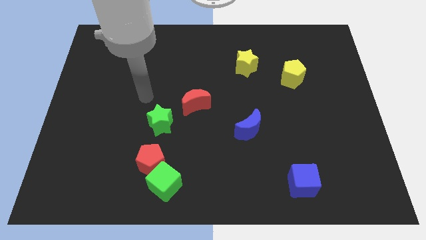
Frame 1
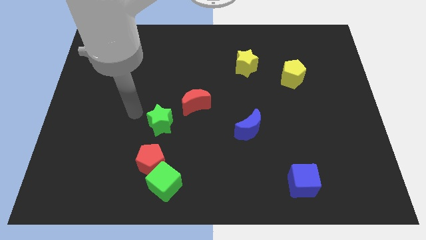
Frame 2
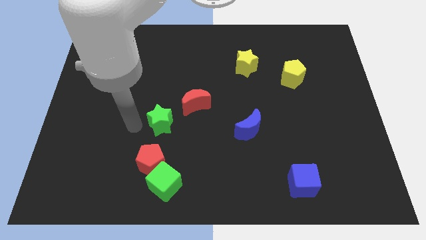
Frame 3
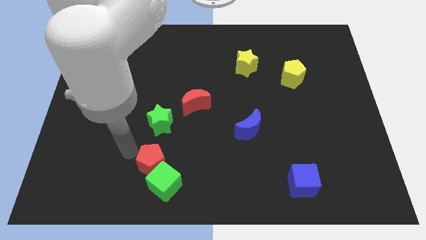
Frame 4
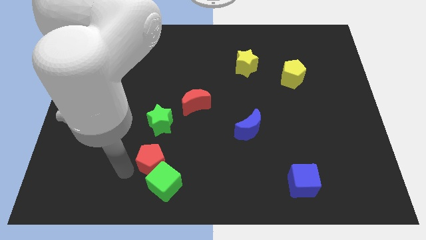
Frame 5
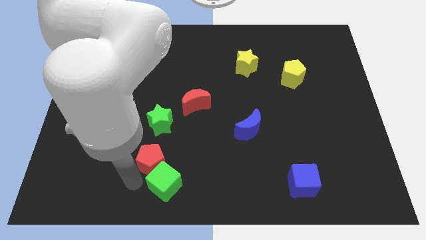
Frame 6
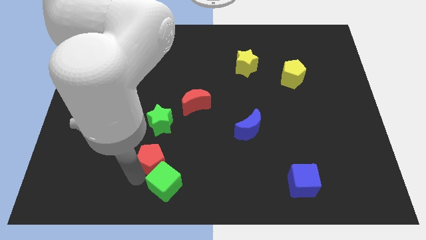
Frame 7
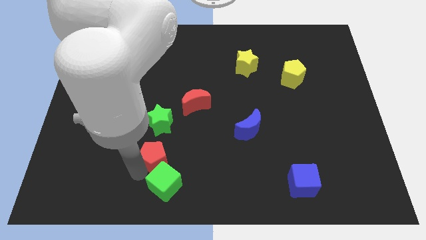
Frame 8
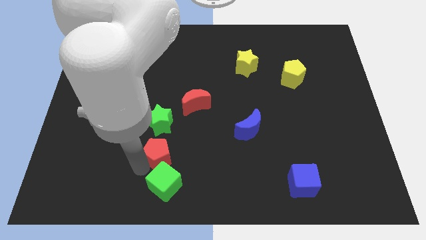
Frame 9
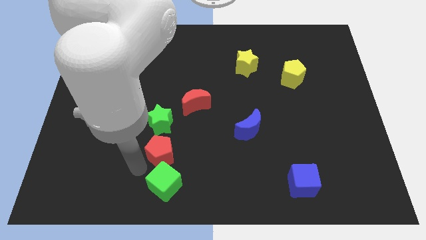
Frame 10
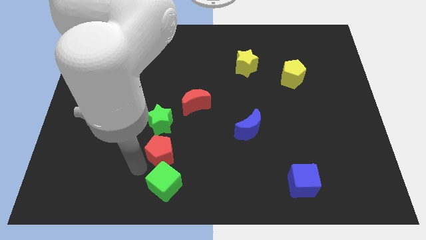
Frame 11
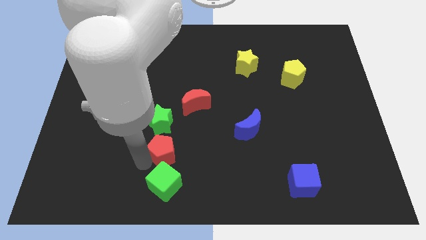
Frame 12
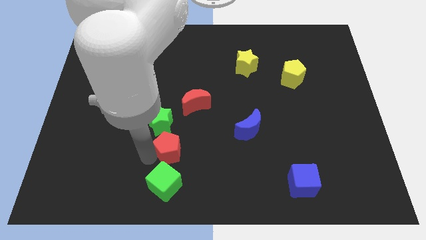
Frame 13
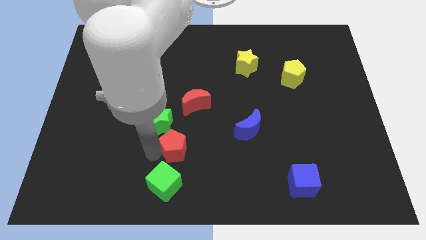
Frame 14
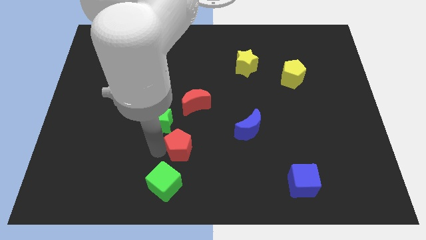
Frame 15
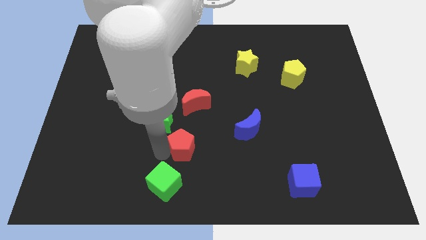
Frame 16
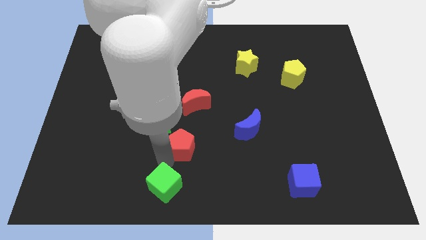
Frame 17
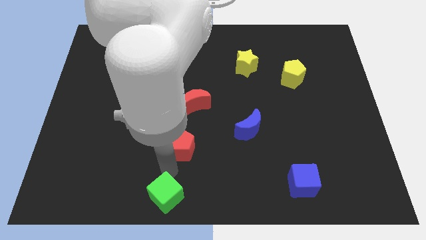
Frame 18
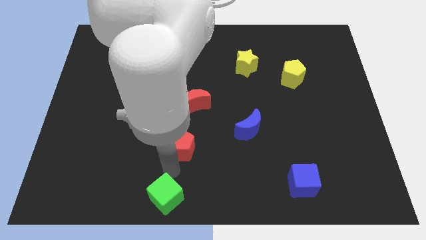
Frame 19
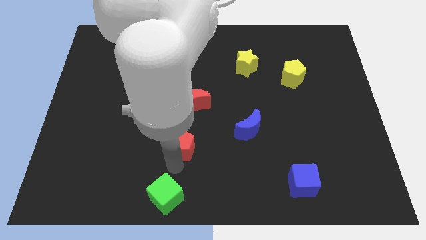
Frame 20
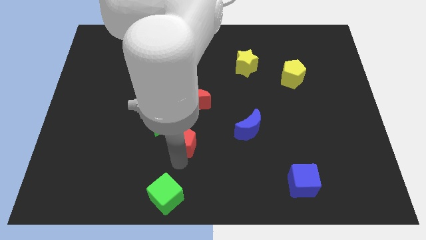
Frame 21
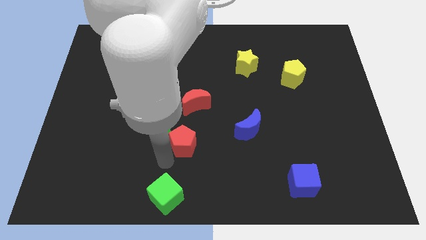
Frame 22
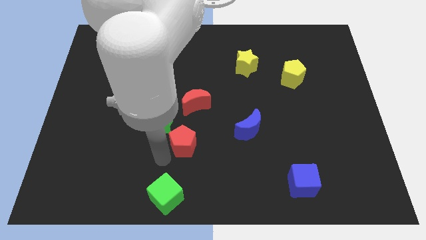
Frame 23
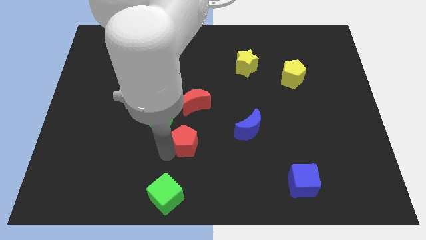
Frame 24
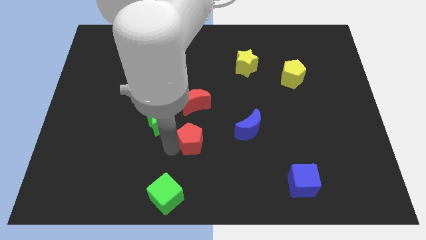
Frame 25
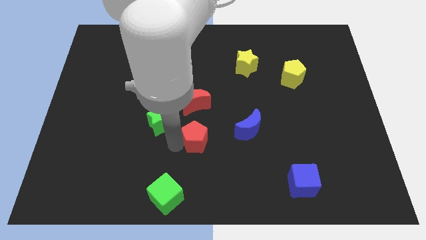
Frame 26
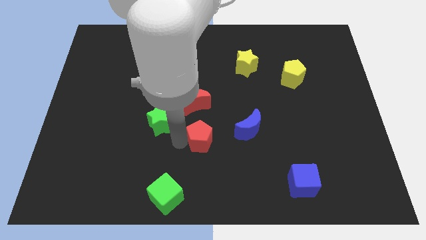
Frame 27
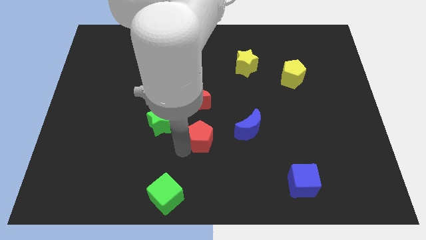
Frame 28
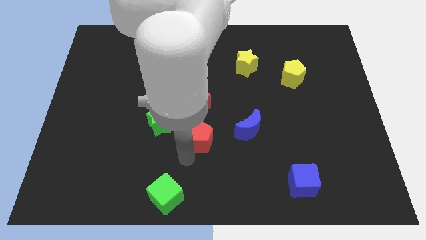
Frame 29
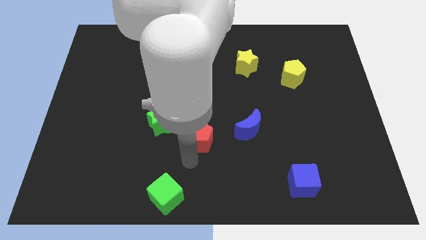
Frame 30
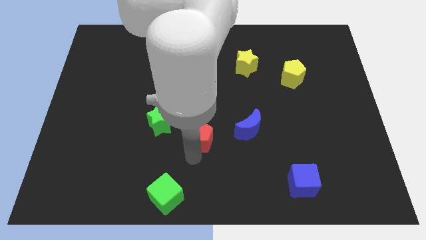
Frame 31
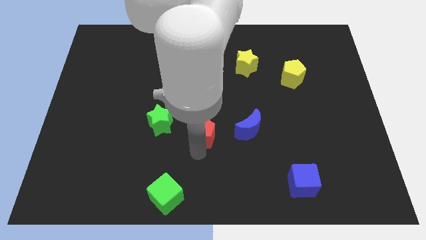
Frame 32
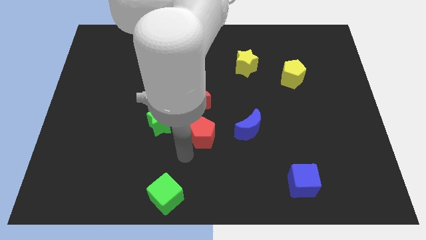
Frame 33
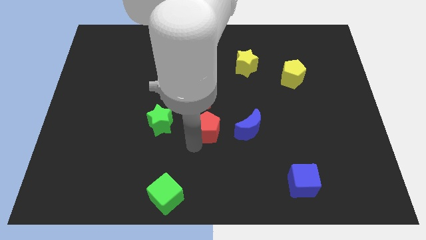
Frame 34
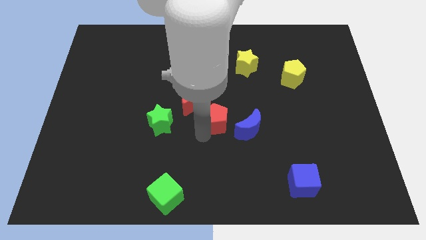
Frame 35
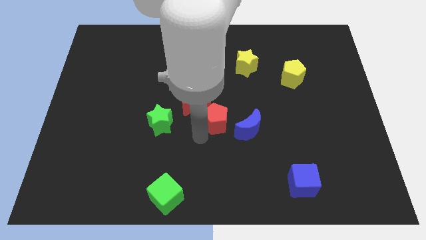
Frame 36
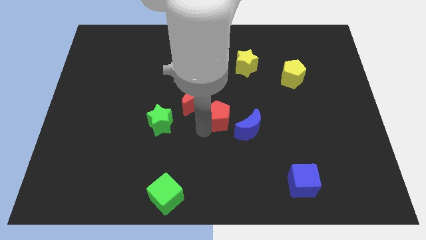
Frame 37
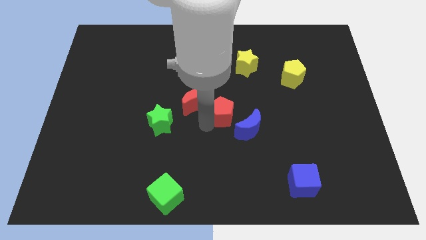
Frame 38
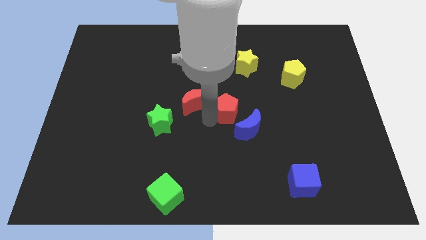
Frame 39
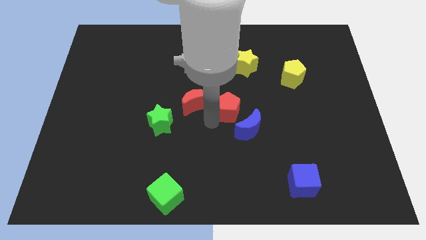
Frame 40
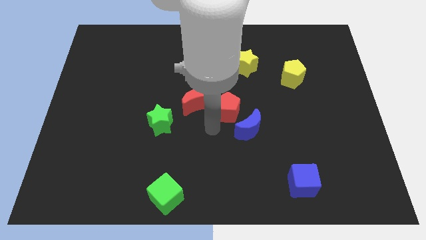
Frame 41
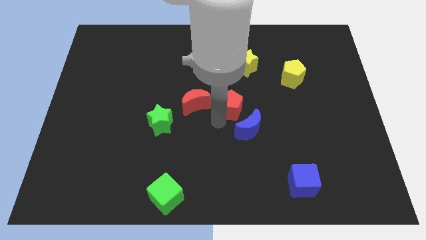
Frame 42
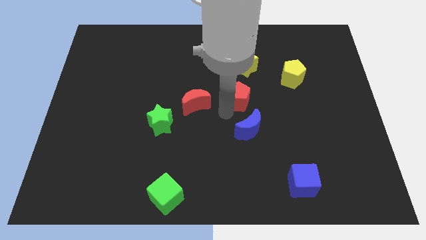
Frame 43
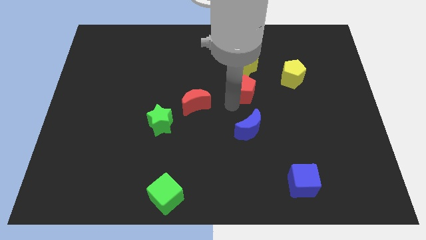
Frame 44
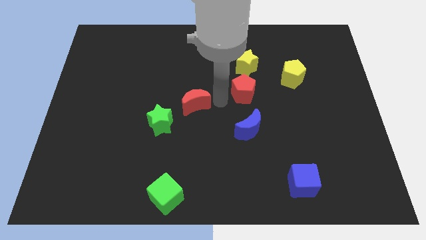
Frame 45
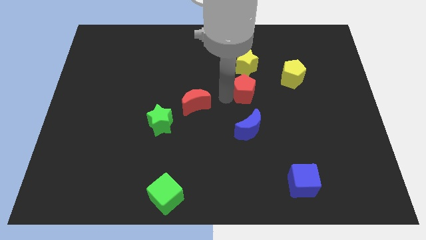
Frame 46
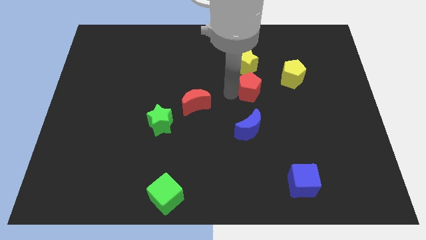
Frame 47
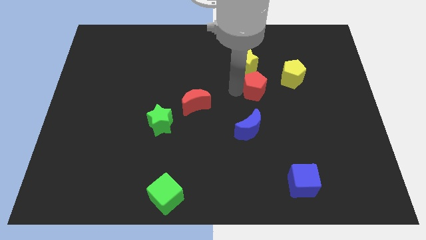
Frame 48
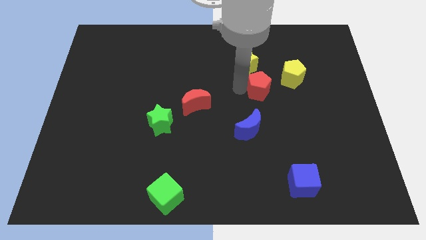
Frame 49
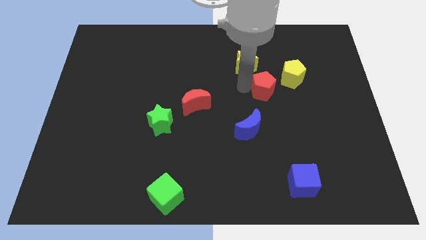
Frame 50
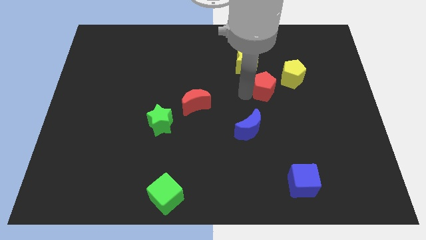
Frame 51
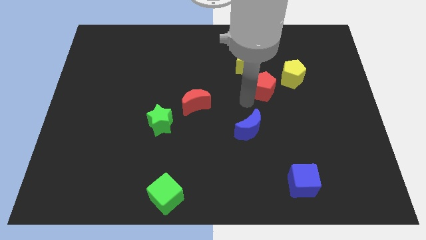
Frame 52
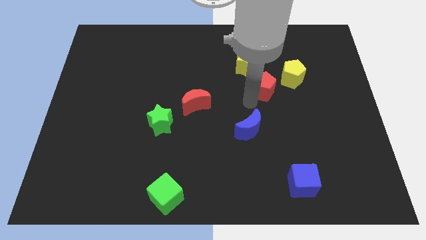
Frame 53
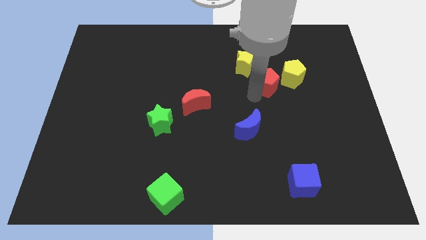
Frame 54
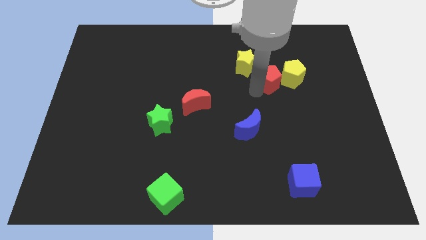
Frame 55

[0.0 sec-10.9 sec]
push the red pentagon next to the yellow pentagon

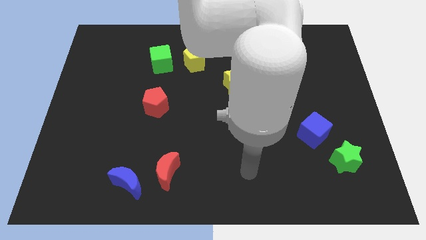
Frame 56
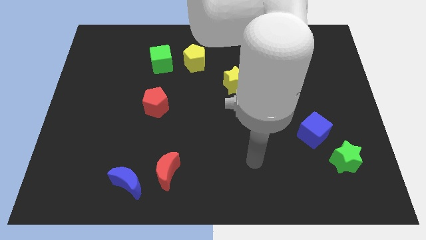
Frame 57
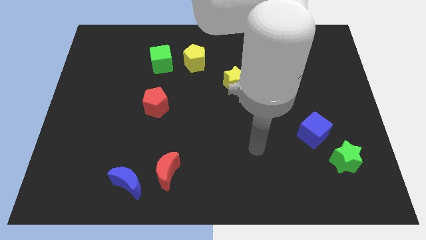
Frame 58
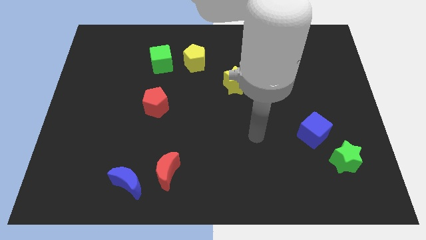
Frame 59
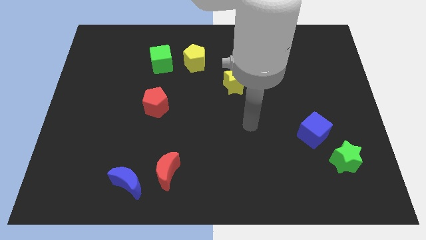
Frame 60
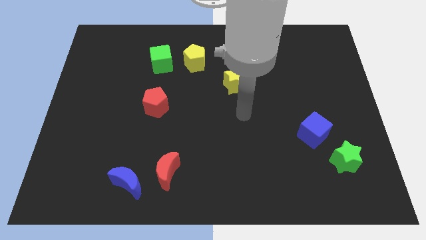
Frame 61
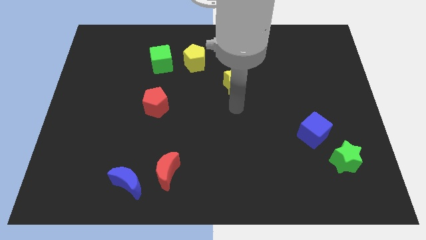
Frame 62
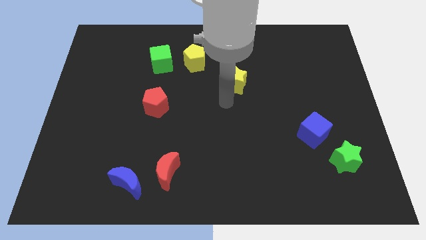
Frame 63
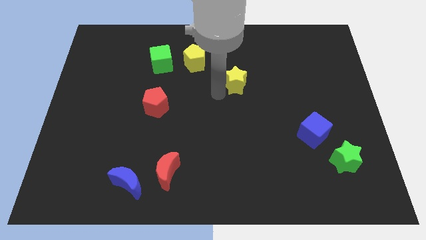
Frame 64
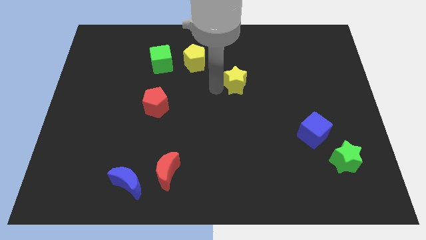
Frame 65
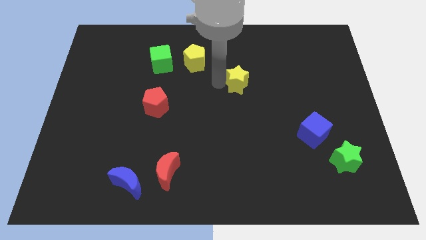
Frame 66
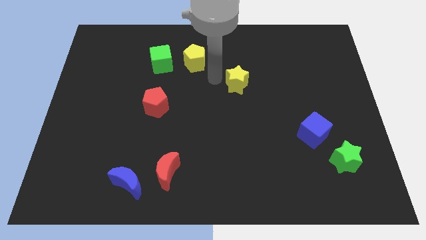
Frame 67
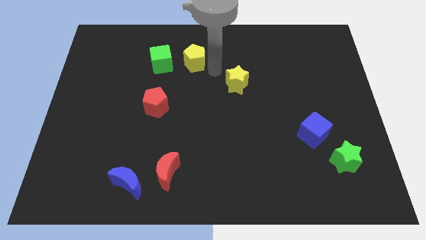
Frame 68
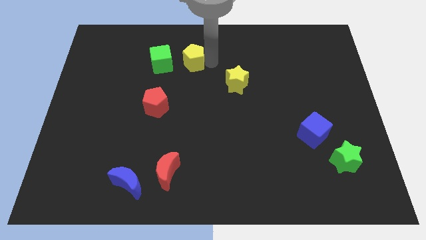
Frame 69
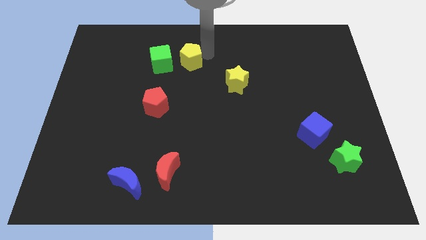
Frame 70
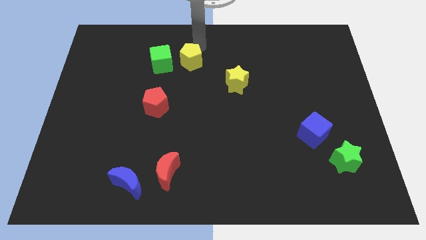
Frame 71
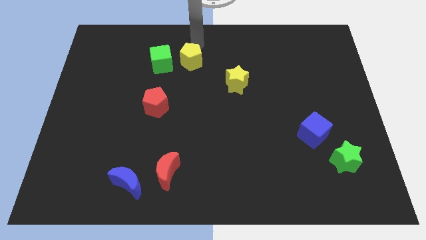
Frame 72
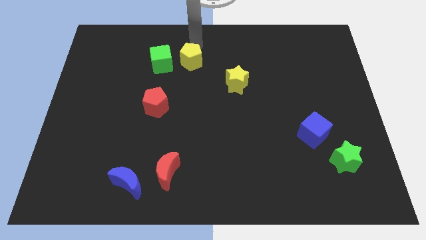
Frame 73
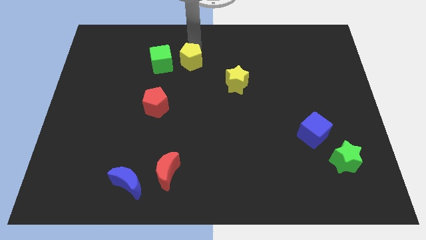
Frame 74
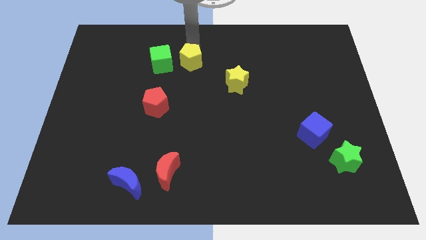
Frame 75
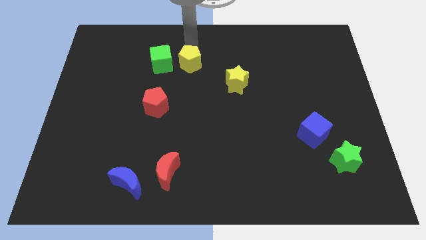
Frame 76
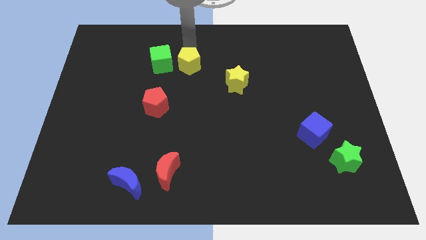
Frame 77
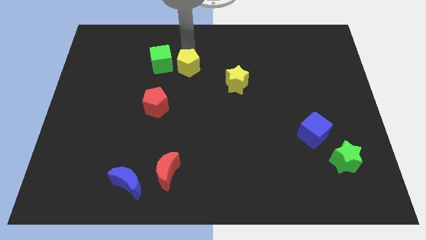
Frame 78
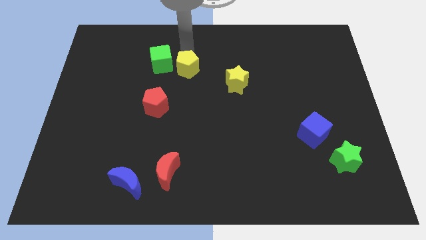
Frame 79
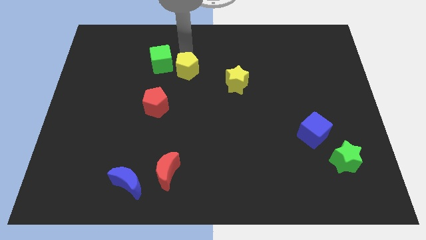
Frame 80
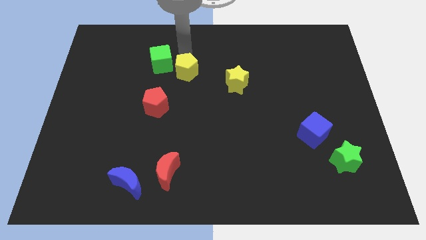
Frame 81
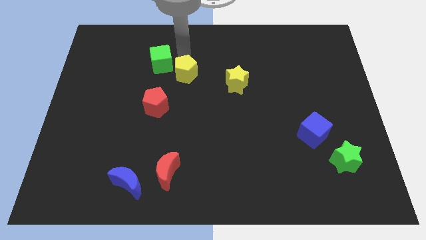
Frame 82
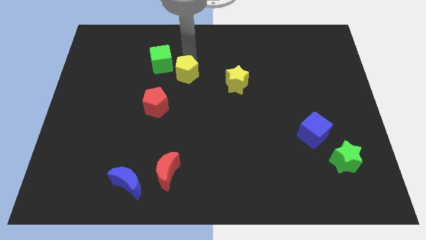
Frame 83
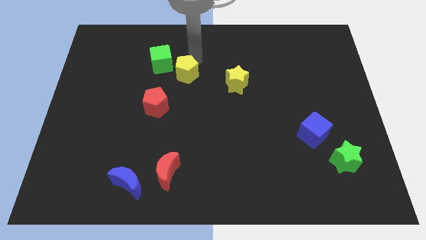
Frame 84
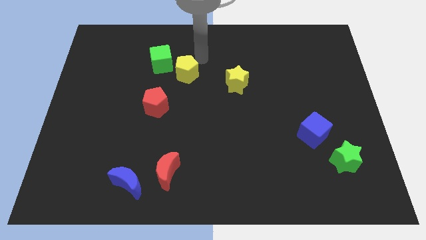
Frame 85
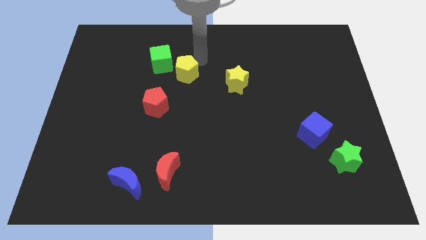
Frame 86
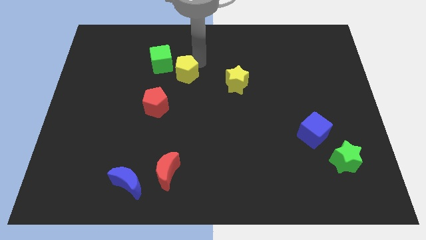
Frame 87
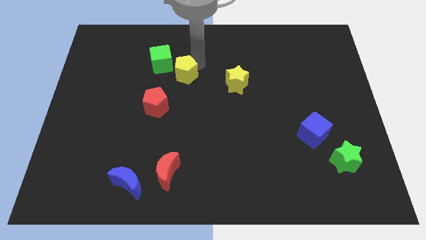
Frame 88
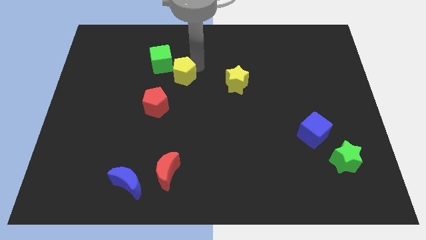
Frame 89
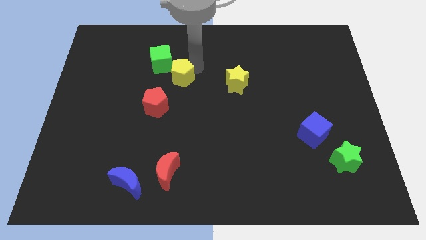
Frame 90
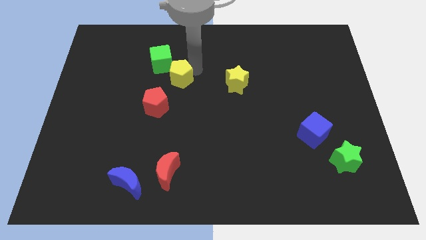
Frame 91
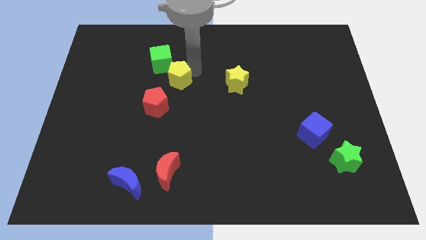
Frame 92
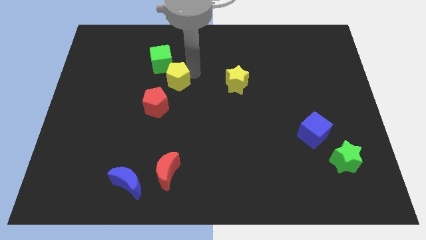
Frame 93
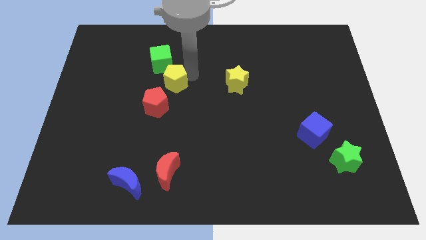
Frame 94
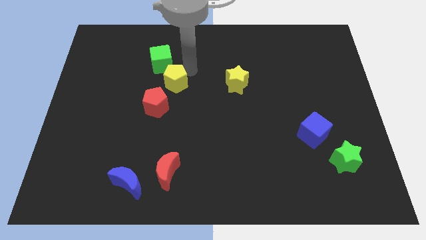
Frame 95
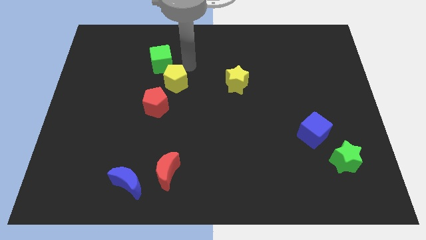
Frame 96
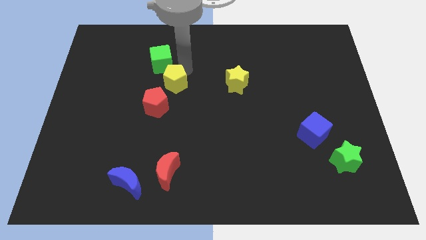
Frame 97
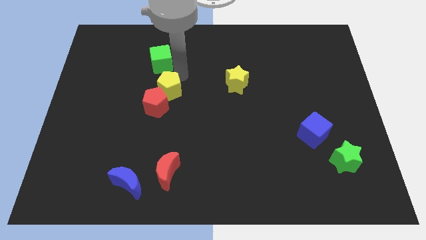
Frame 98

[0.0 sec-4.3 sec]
put the yellow pentagon to the red pentagon
